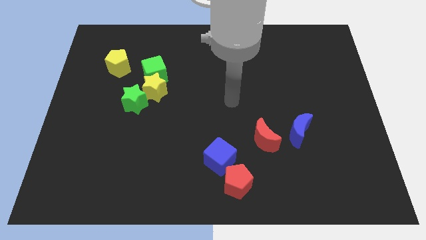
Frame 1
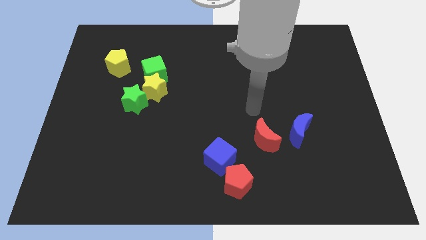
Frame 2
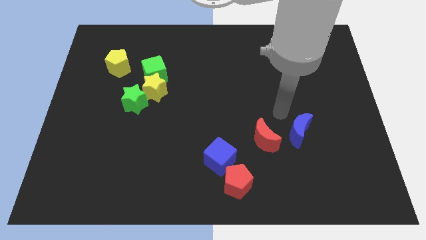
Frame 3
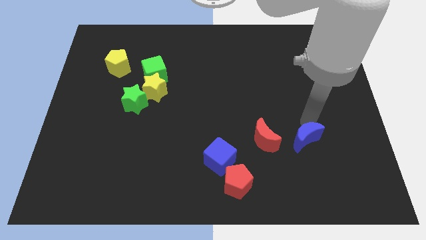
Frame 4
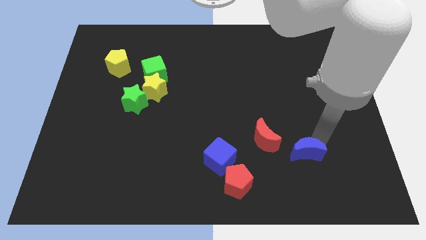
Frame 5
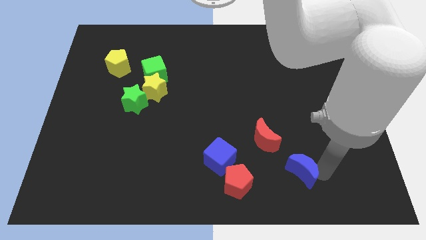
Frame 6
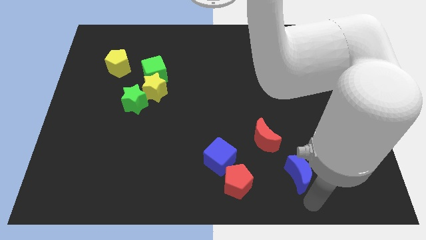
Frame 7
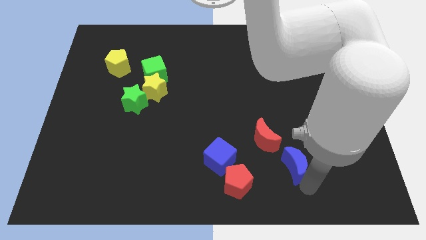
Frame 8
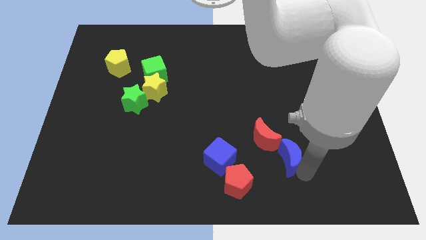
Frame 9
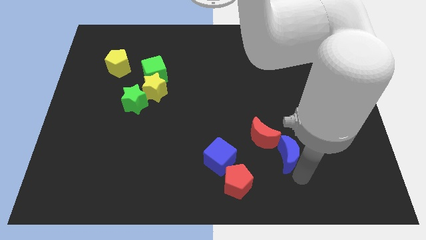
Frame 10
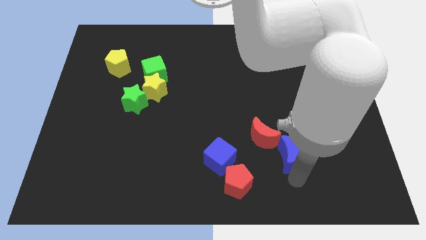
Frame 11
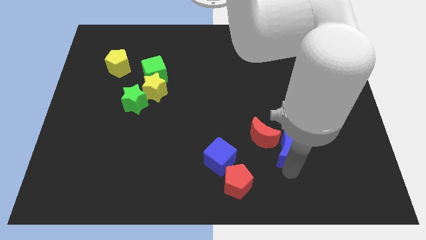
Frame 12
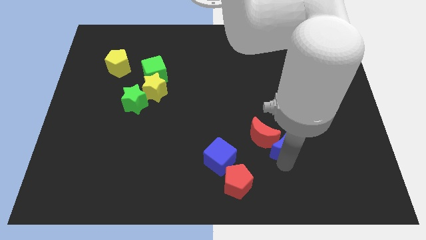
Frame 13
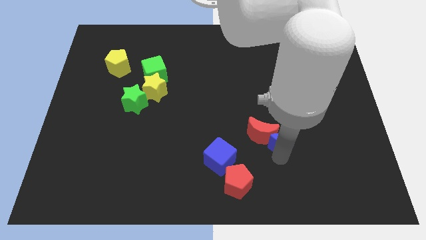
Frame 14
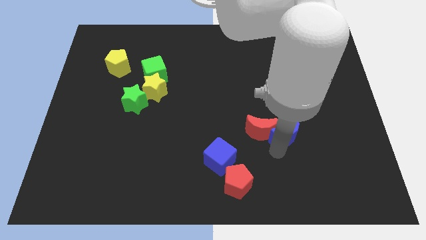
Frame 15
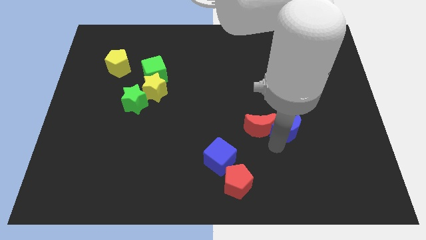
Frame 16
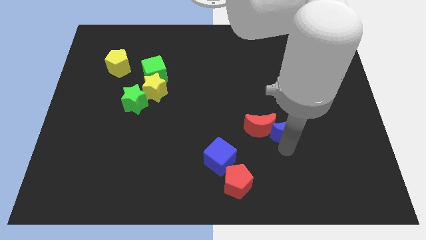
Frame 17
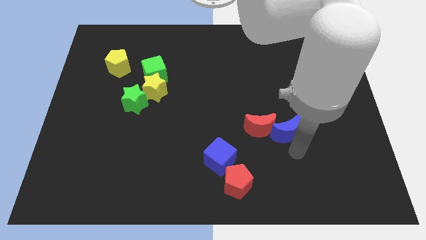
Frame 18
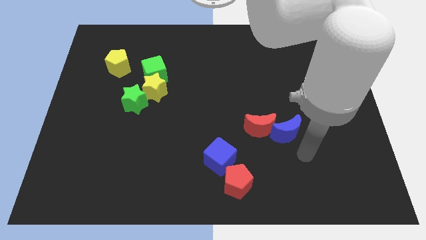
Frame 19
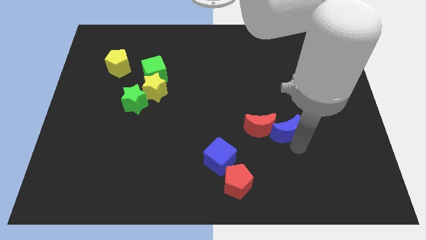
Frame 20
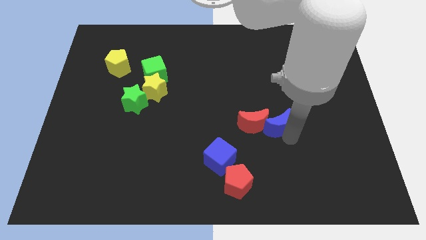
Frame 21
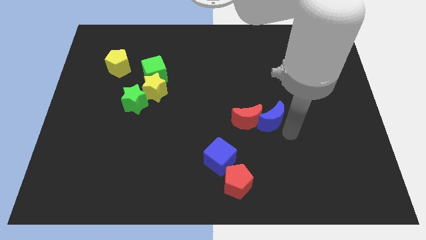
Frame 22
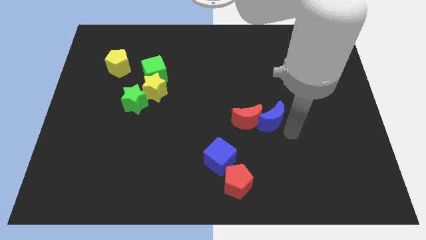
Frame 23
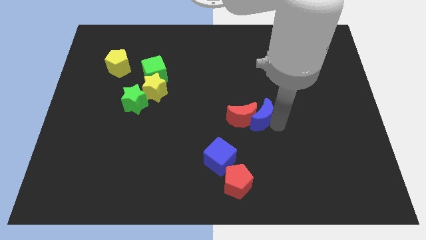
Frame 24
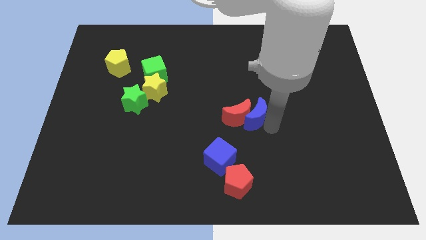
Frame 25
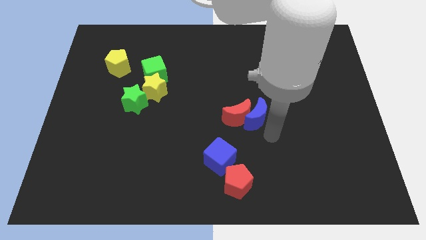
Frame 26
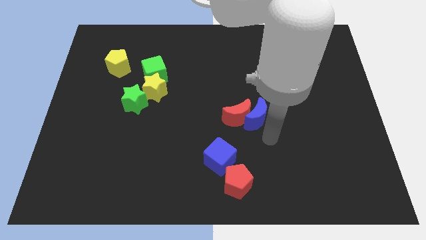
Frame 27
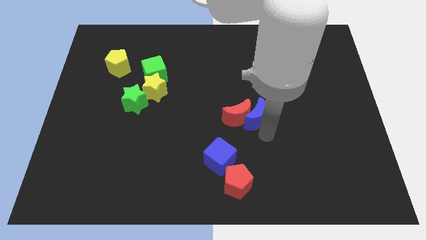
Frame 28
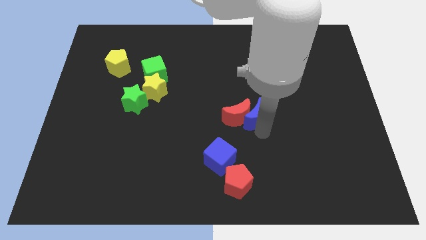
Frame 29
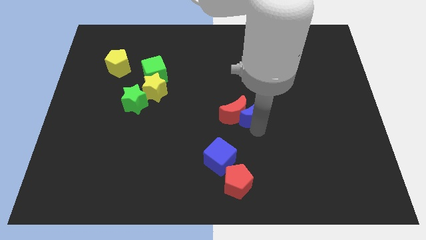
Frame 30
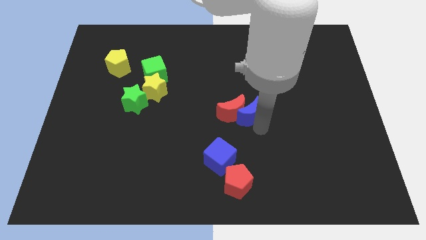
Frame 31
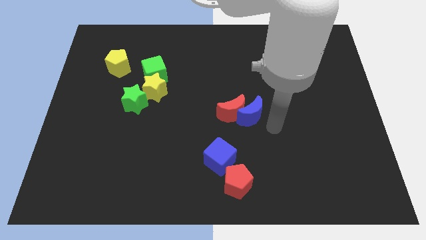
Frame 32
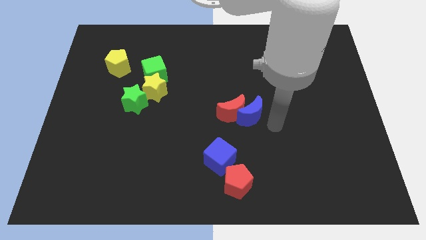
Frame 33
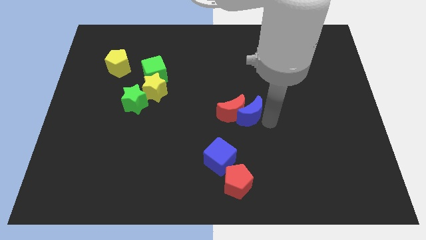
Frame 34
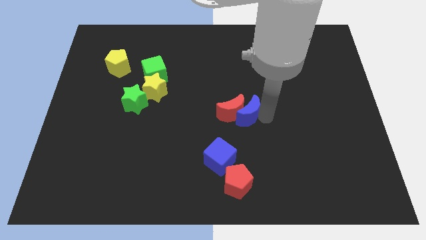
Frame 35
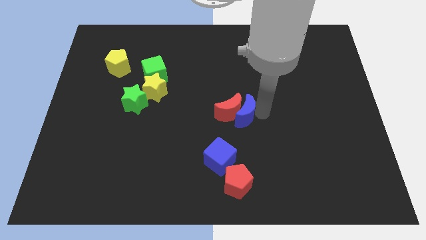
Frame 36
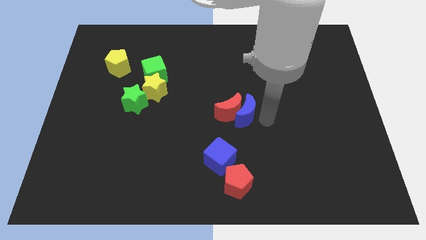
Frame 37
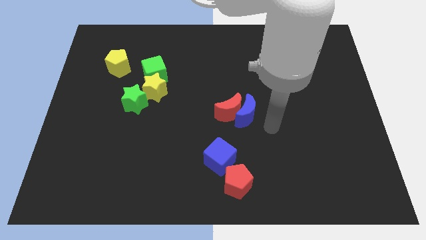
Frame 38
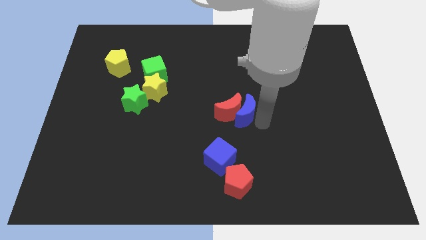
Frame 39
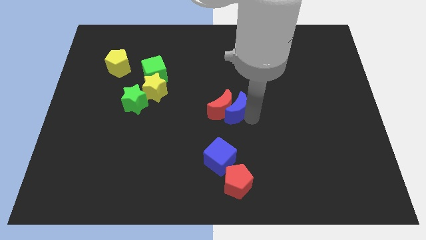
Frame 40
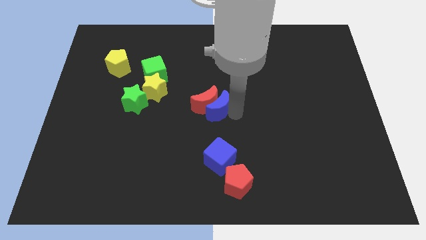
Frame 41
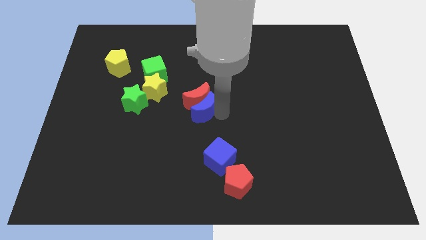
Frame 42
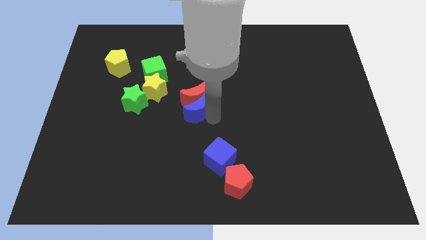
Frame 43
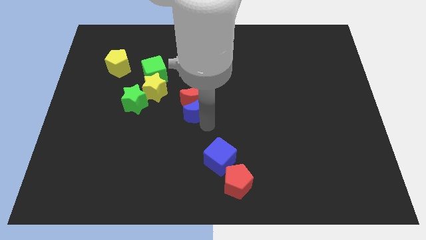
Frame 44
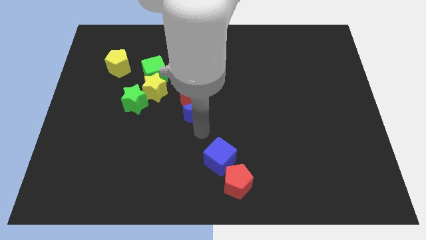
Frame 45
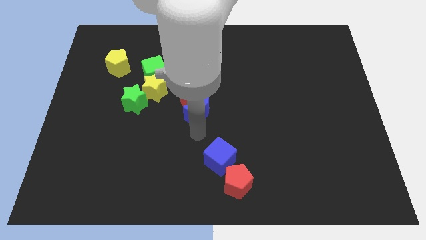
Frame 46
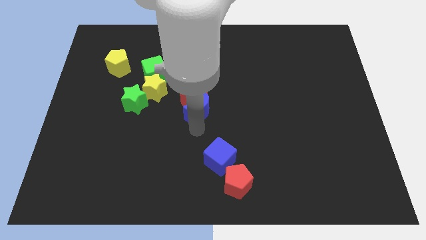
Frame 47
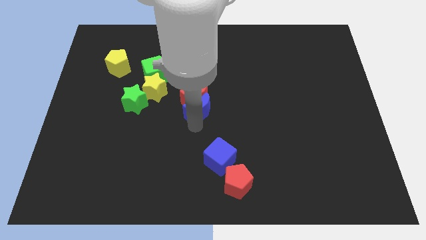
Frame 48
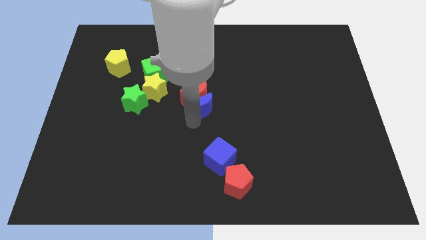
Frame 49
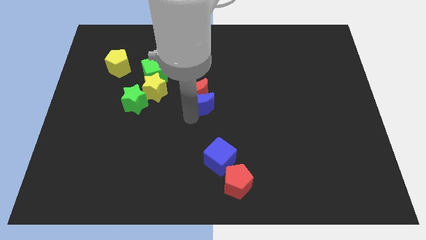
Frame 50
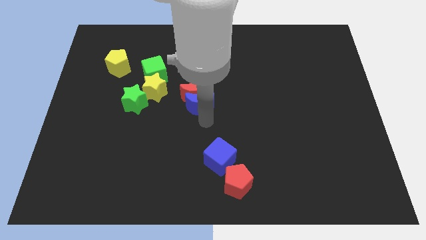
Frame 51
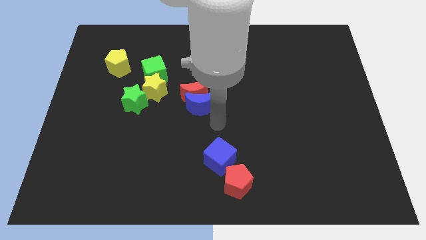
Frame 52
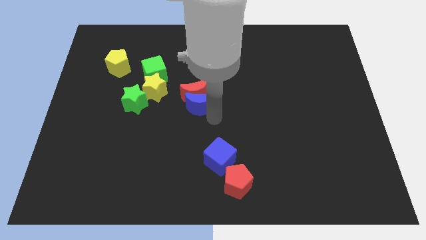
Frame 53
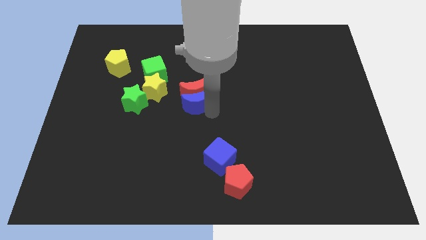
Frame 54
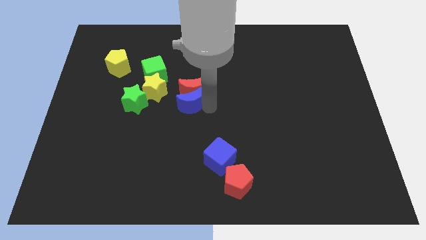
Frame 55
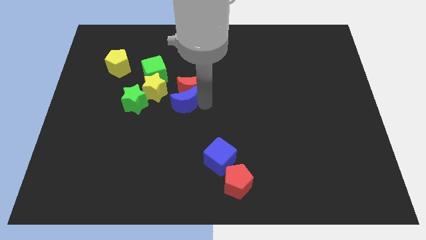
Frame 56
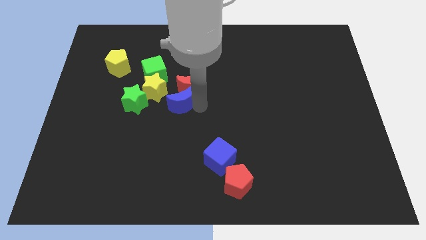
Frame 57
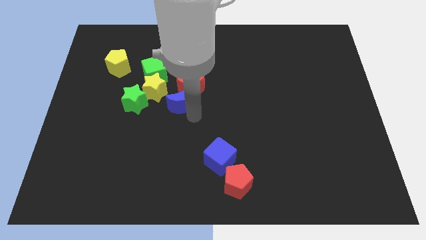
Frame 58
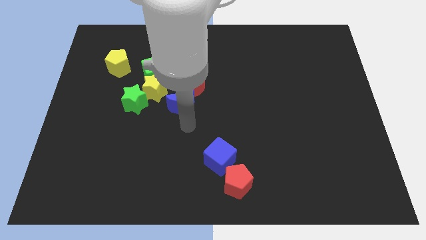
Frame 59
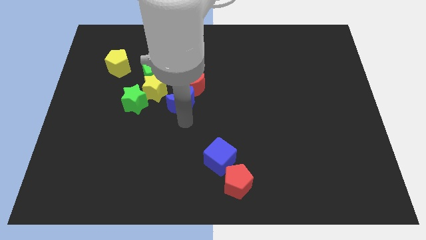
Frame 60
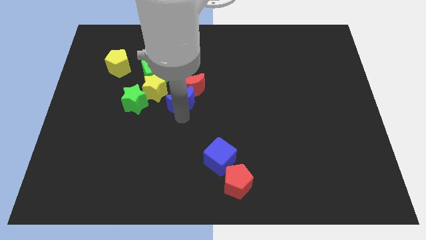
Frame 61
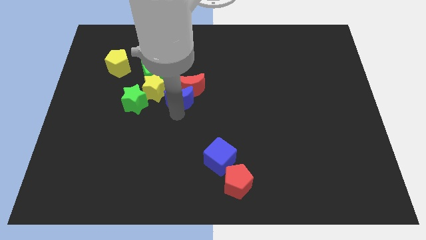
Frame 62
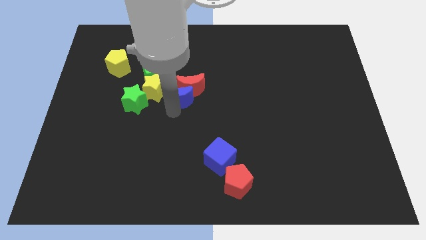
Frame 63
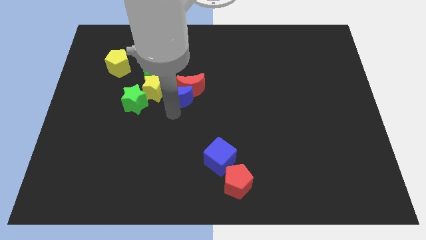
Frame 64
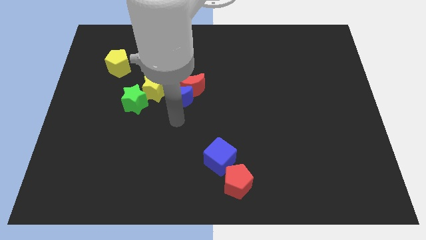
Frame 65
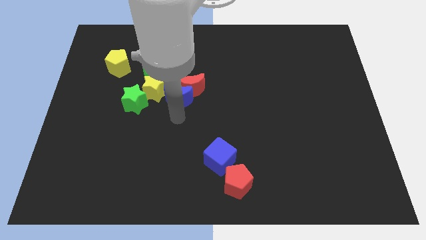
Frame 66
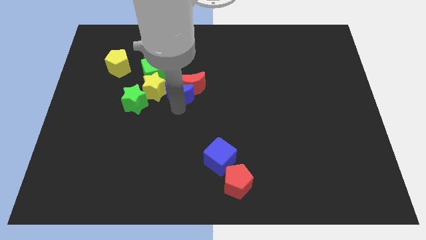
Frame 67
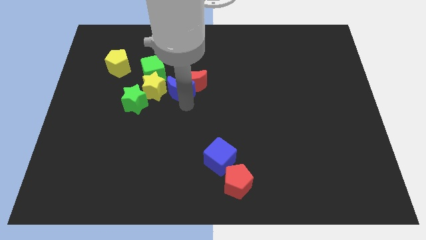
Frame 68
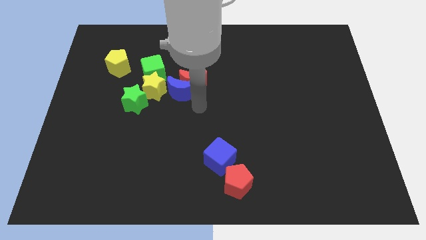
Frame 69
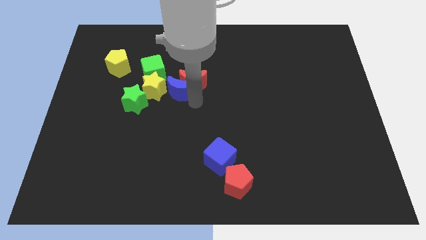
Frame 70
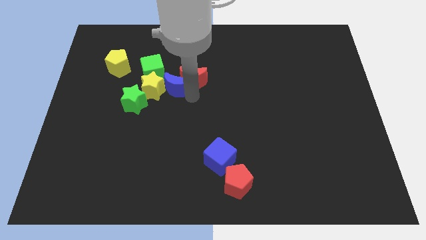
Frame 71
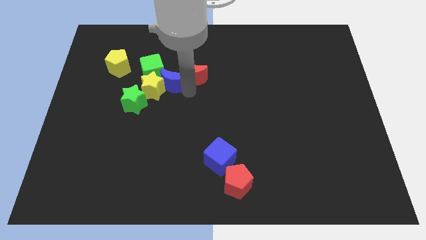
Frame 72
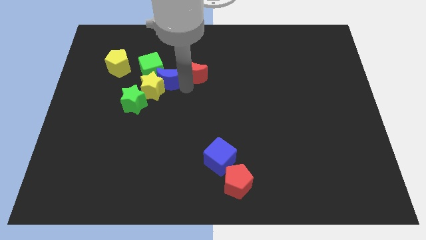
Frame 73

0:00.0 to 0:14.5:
slide the blue moon next to the green cube
